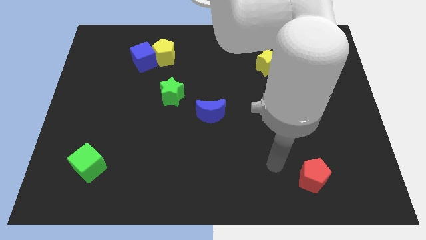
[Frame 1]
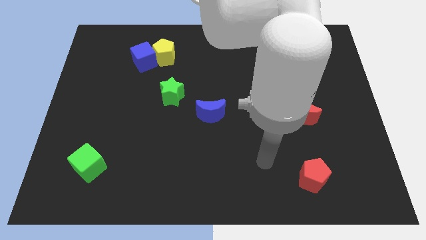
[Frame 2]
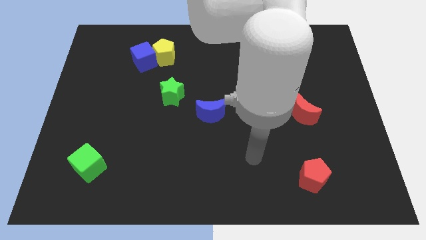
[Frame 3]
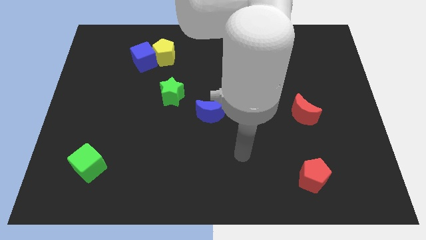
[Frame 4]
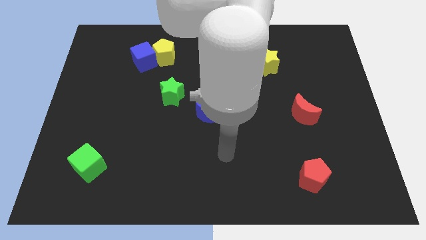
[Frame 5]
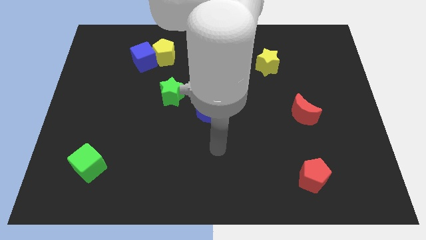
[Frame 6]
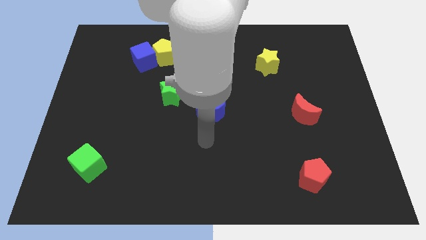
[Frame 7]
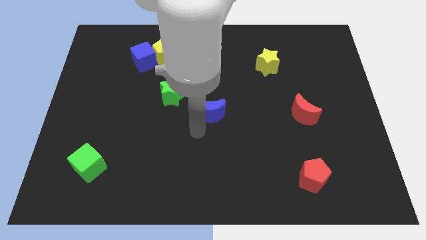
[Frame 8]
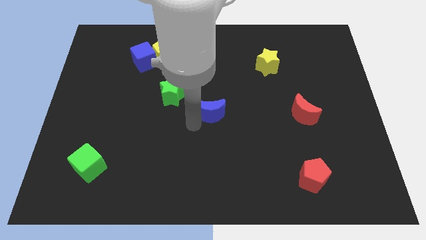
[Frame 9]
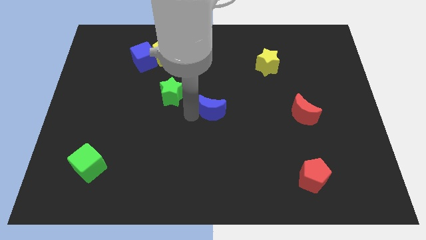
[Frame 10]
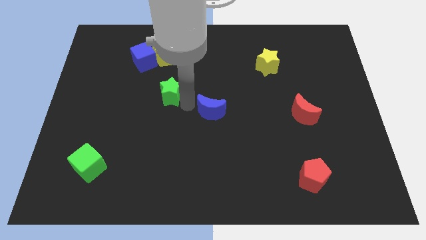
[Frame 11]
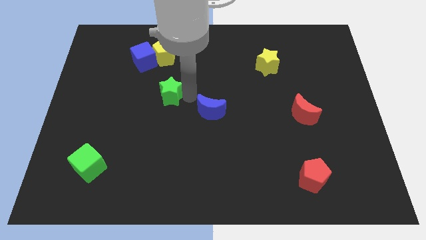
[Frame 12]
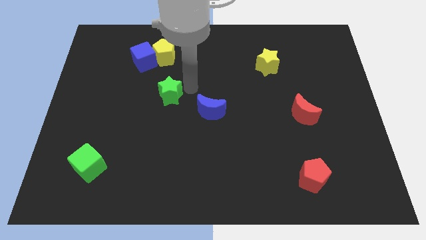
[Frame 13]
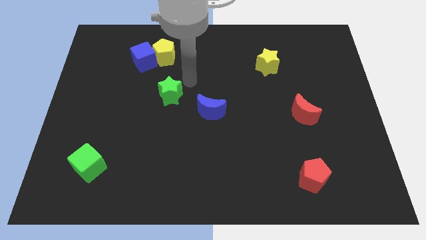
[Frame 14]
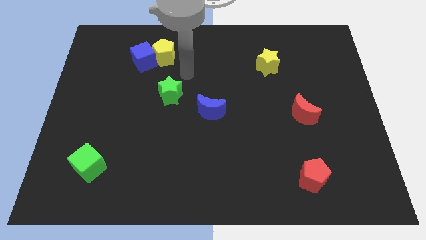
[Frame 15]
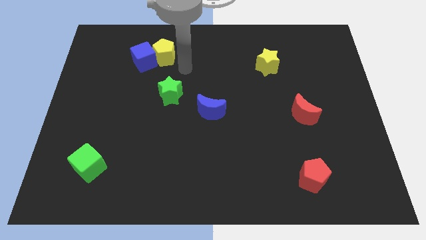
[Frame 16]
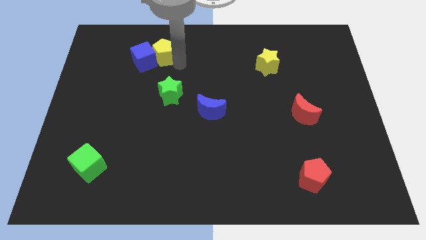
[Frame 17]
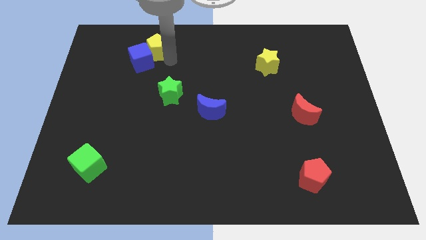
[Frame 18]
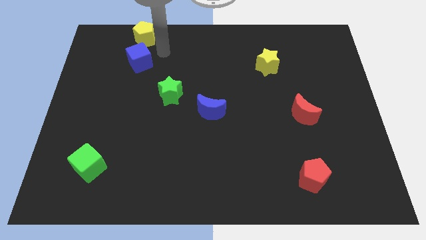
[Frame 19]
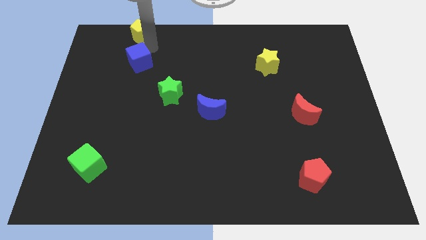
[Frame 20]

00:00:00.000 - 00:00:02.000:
pull the blue cube apart from the yellow pentagon

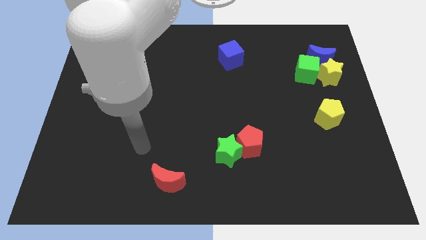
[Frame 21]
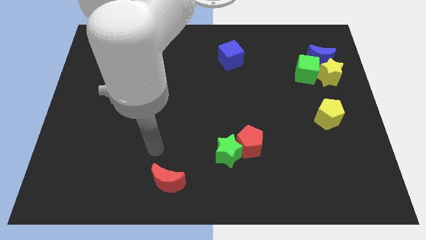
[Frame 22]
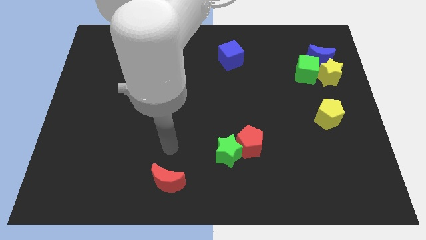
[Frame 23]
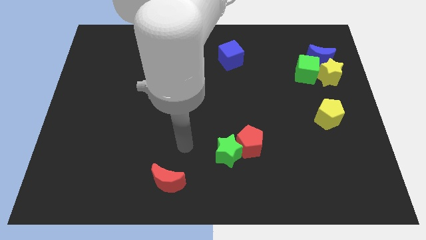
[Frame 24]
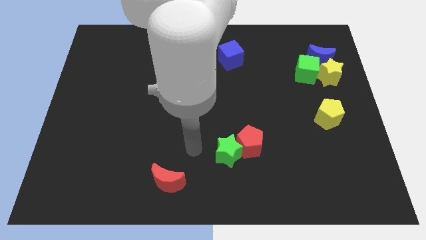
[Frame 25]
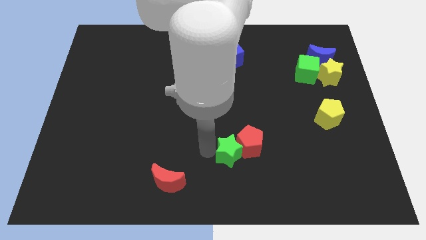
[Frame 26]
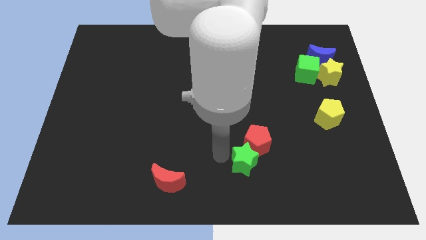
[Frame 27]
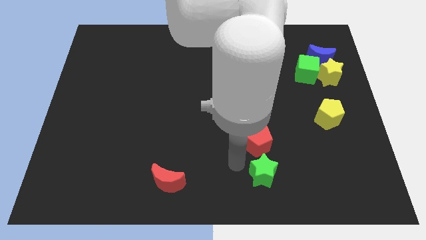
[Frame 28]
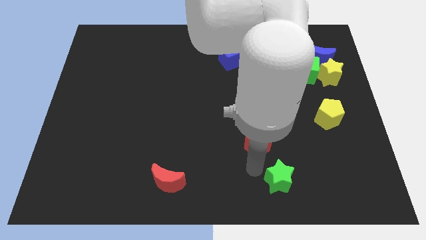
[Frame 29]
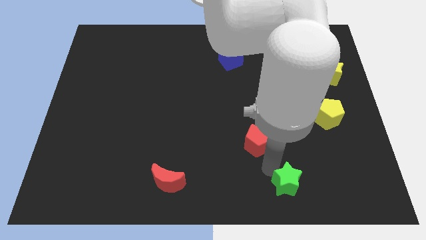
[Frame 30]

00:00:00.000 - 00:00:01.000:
pull the red pentagon apart from the green star

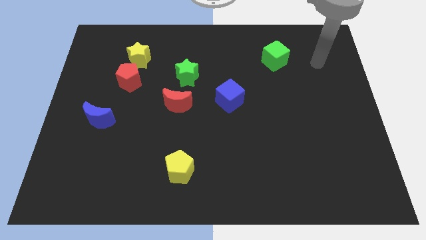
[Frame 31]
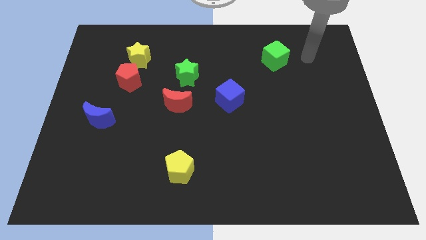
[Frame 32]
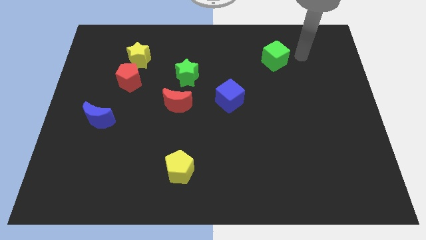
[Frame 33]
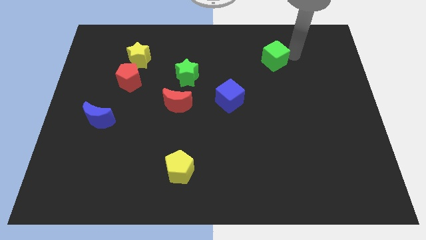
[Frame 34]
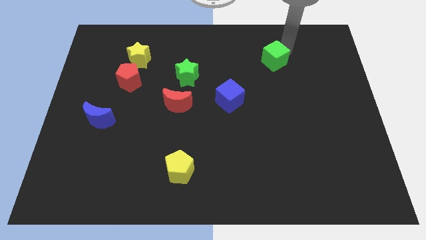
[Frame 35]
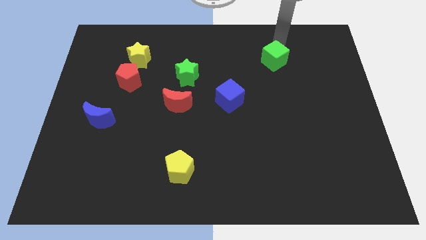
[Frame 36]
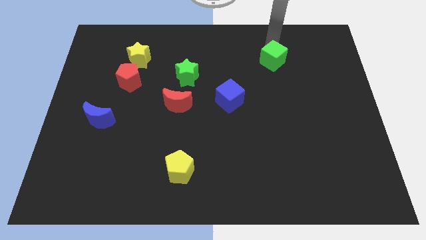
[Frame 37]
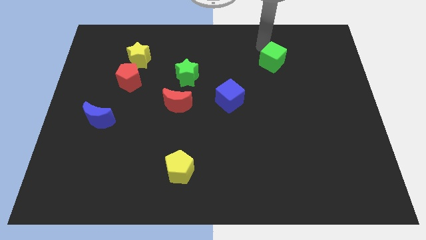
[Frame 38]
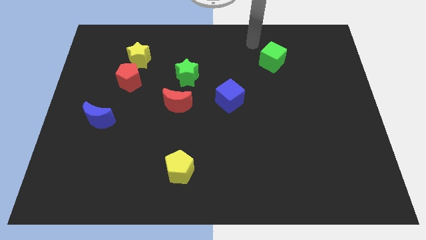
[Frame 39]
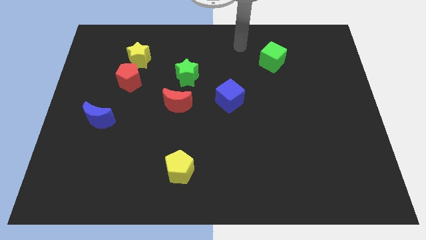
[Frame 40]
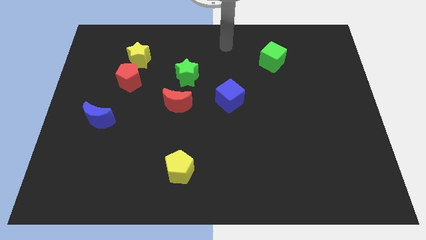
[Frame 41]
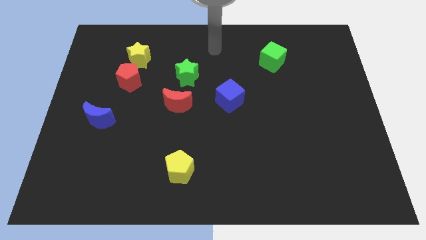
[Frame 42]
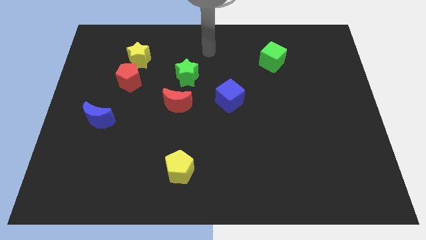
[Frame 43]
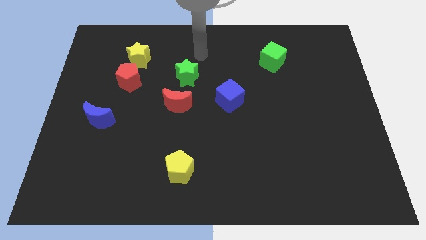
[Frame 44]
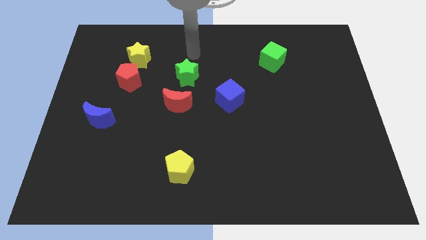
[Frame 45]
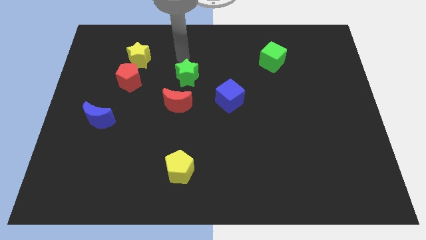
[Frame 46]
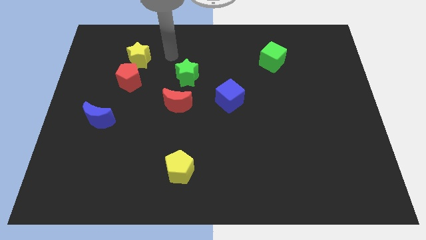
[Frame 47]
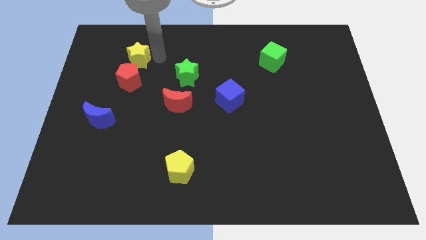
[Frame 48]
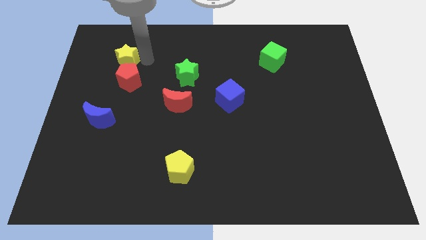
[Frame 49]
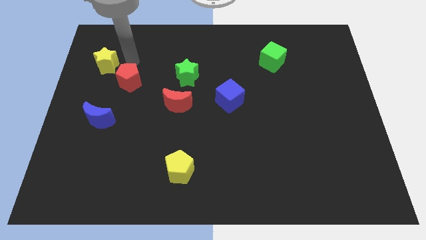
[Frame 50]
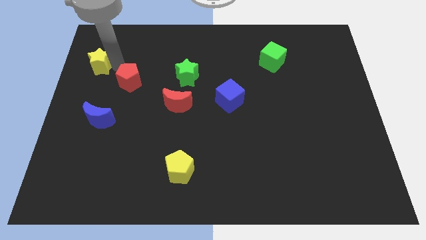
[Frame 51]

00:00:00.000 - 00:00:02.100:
separate the red pentagon from the yellow star

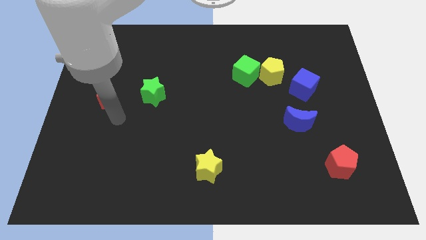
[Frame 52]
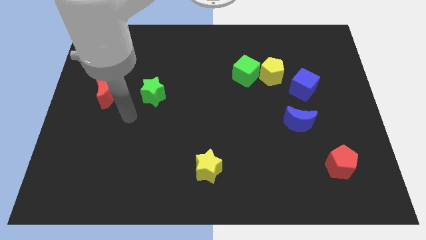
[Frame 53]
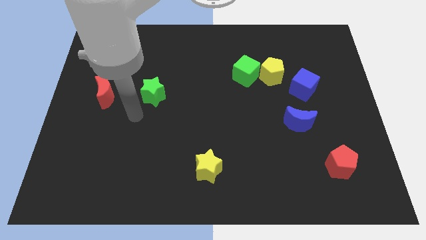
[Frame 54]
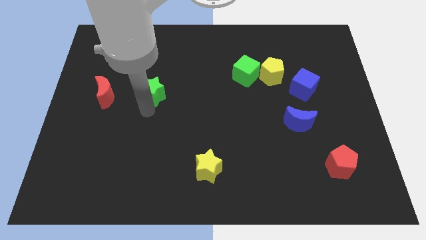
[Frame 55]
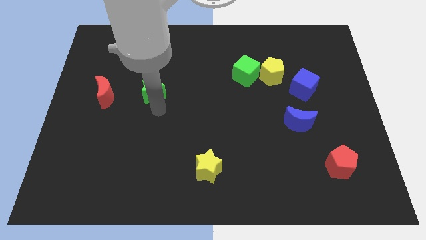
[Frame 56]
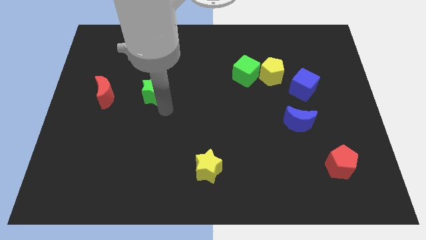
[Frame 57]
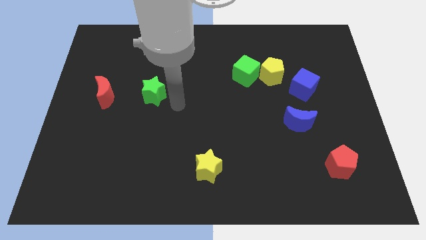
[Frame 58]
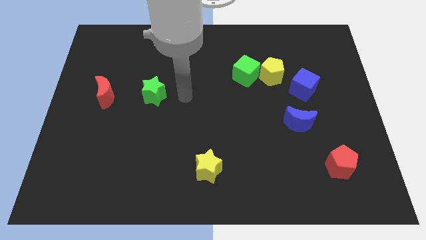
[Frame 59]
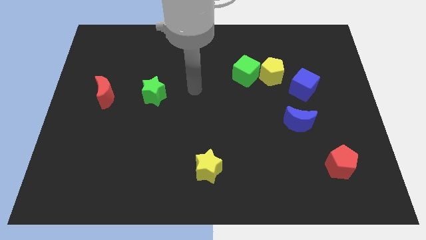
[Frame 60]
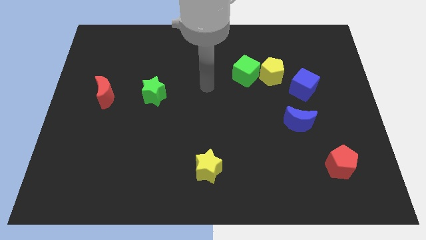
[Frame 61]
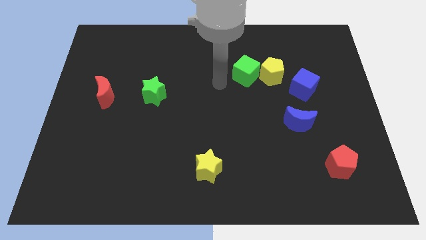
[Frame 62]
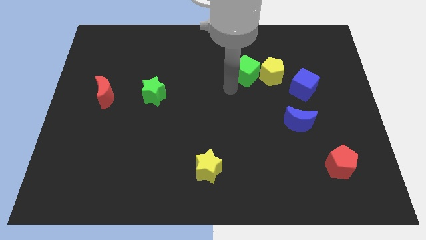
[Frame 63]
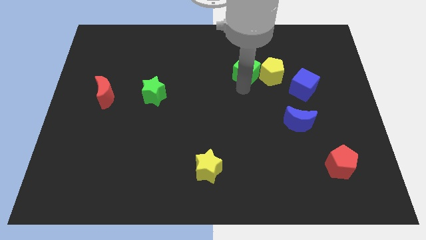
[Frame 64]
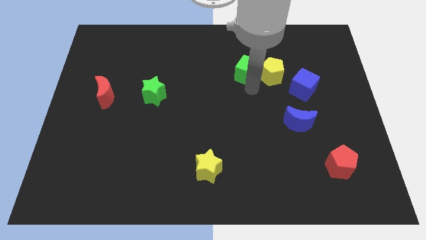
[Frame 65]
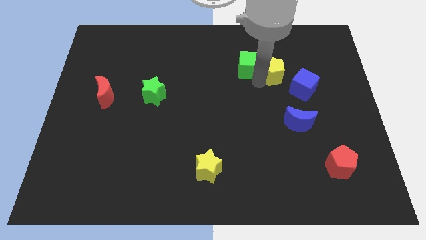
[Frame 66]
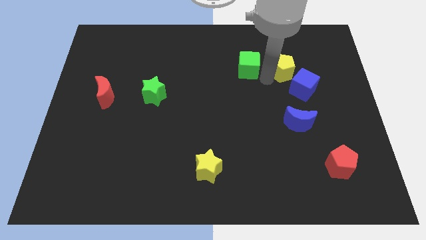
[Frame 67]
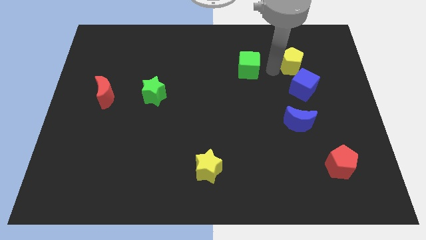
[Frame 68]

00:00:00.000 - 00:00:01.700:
move the green cube away from the yellow pentagon

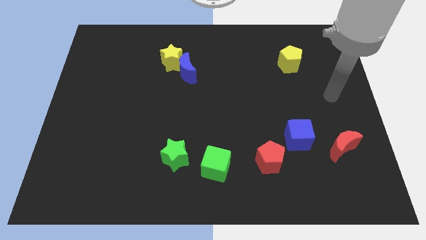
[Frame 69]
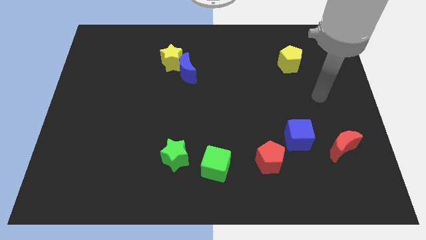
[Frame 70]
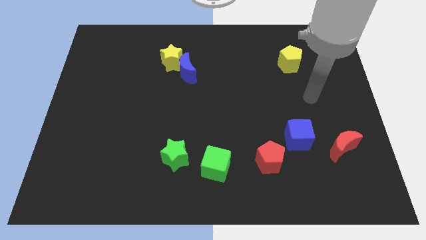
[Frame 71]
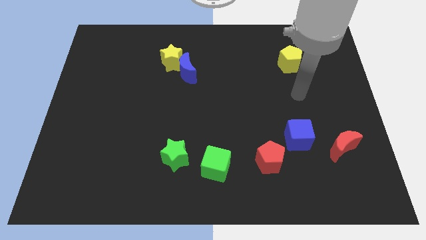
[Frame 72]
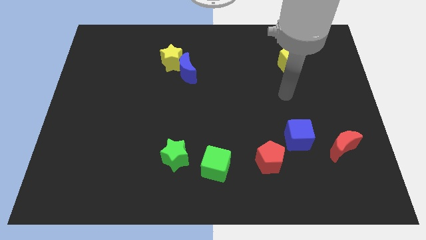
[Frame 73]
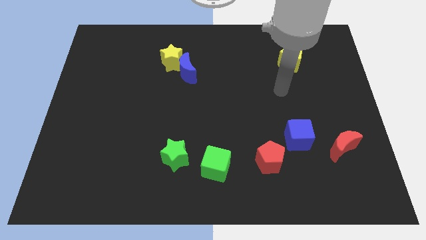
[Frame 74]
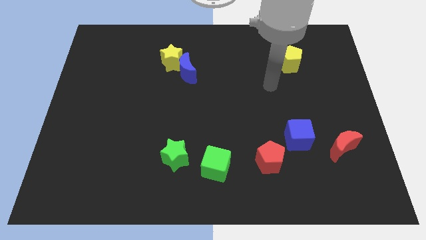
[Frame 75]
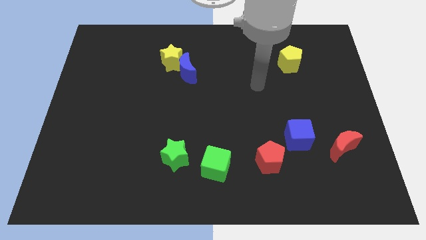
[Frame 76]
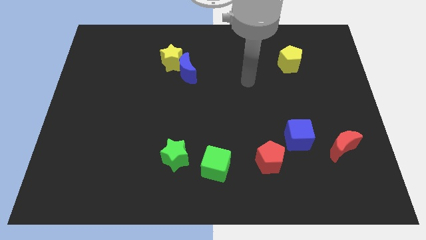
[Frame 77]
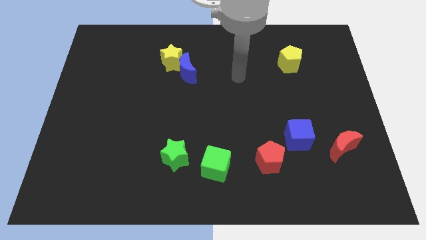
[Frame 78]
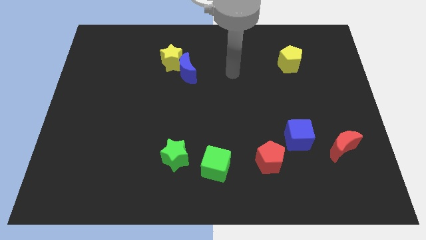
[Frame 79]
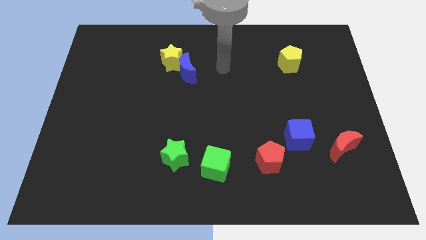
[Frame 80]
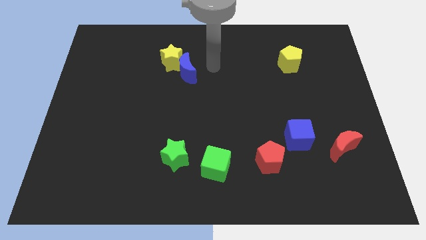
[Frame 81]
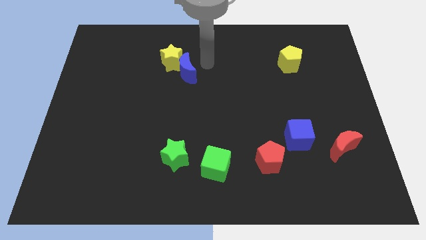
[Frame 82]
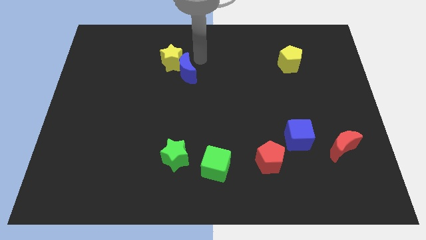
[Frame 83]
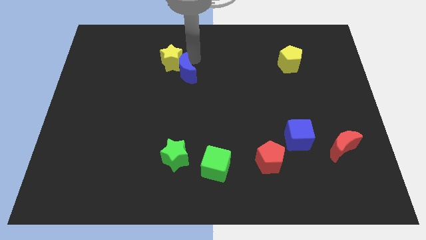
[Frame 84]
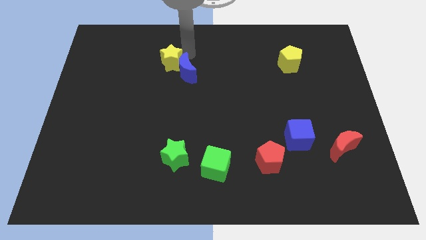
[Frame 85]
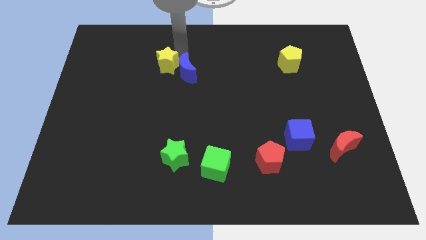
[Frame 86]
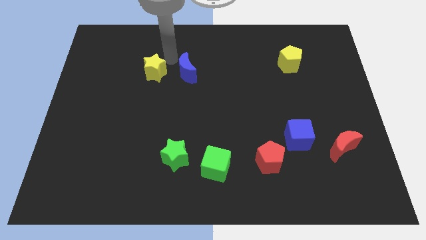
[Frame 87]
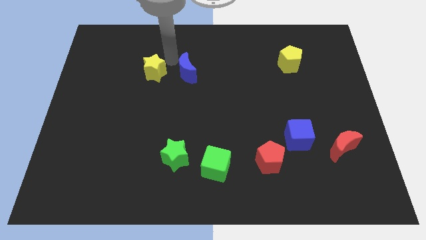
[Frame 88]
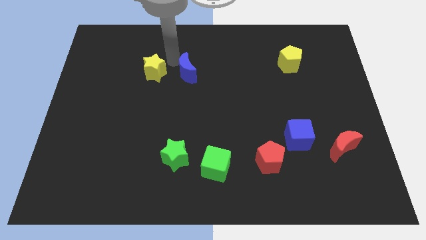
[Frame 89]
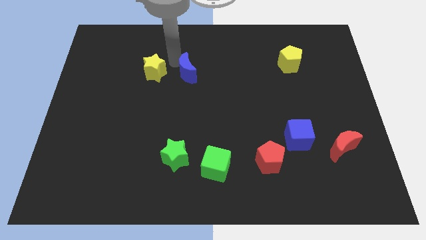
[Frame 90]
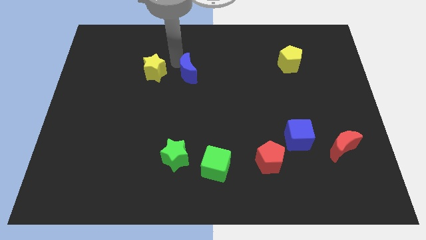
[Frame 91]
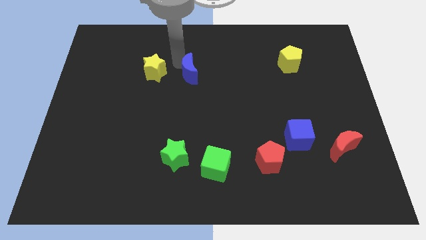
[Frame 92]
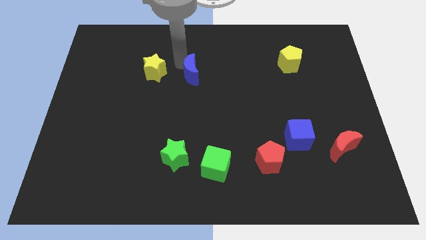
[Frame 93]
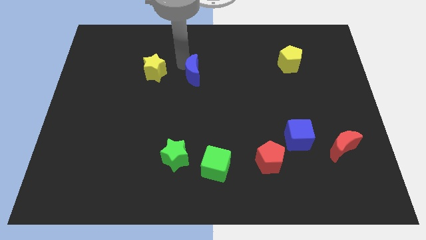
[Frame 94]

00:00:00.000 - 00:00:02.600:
move the blue moon away from the yellow star
